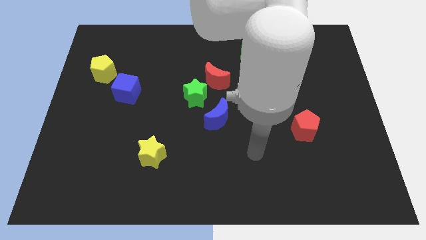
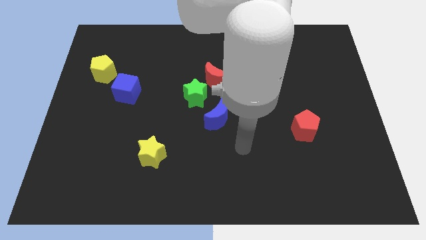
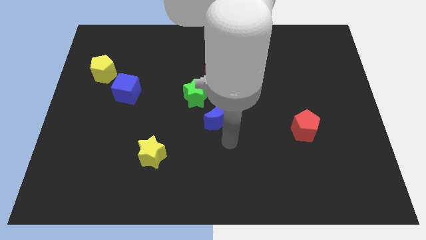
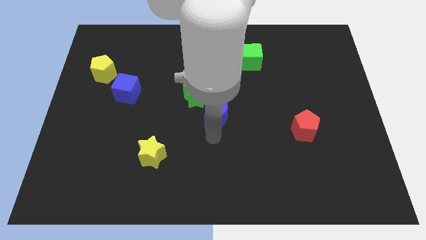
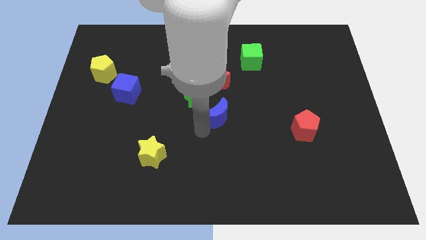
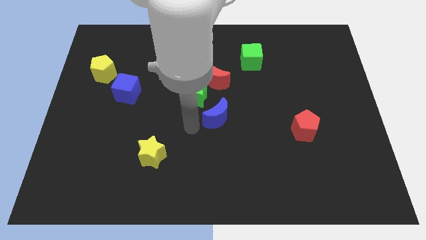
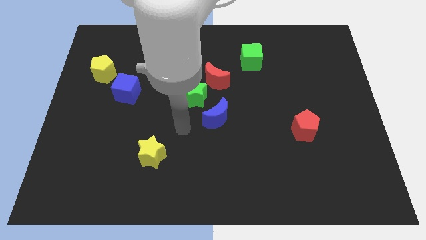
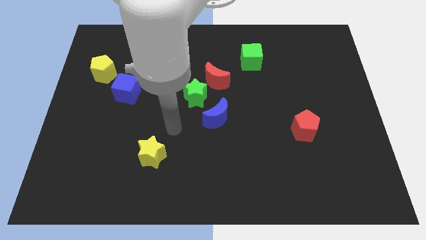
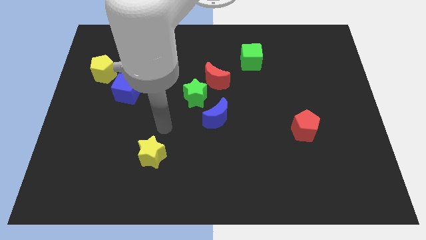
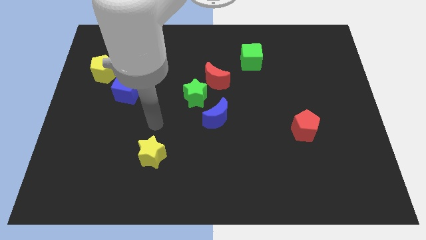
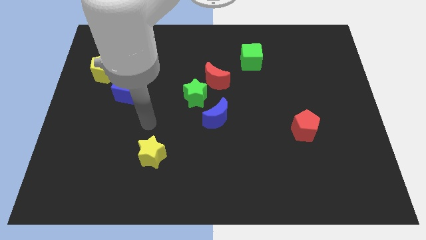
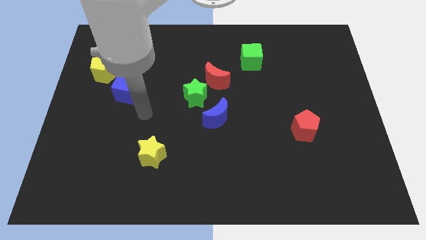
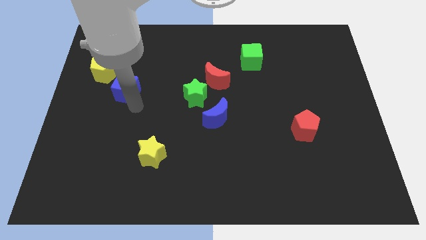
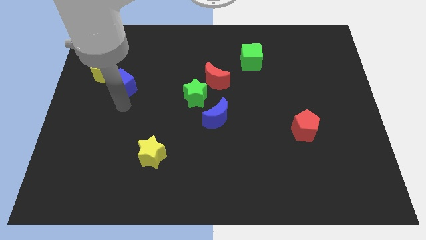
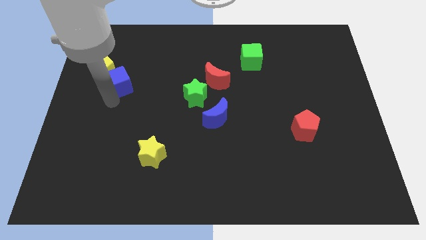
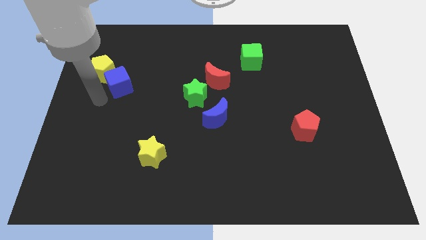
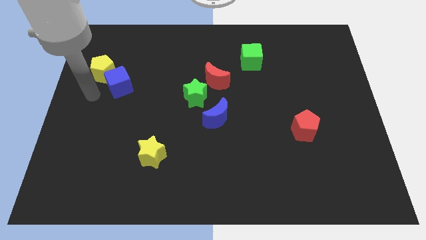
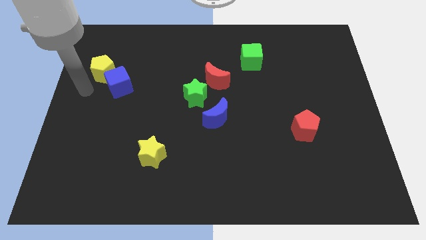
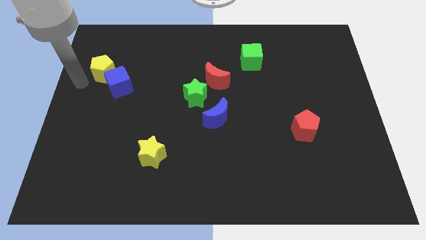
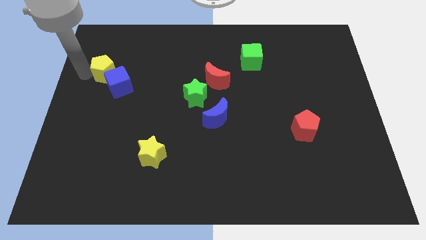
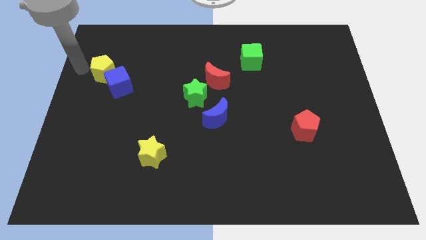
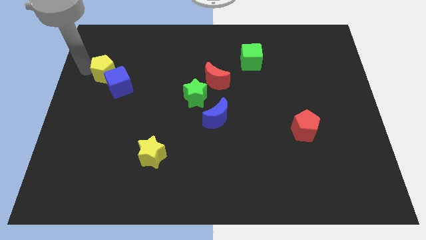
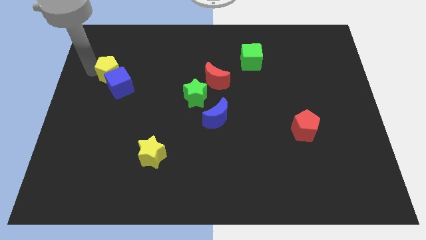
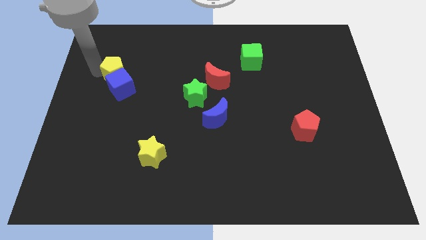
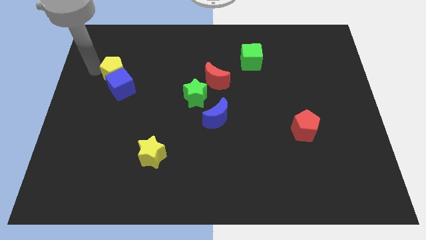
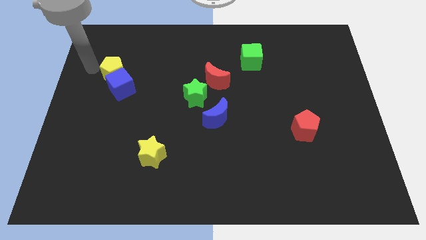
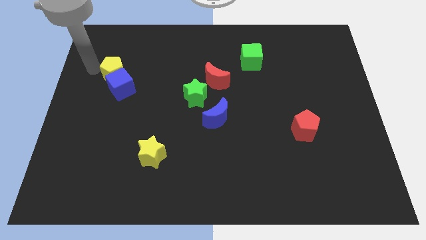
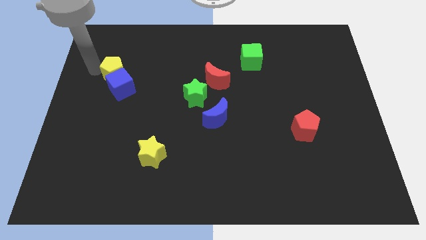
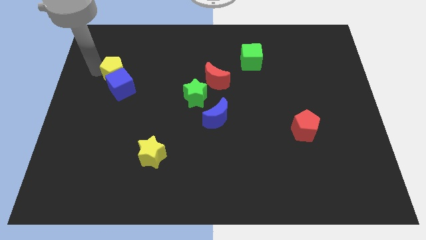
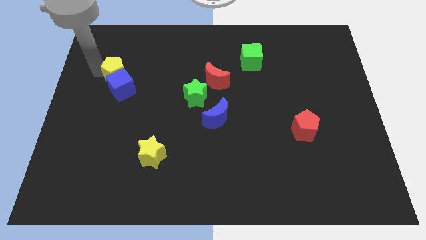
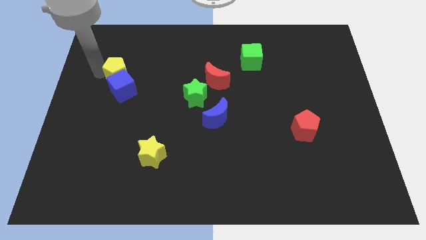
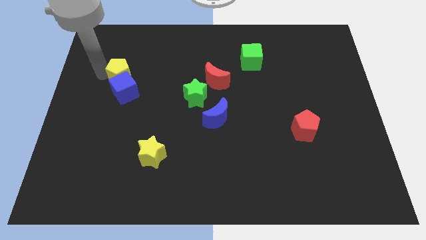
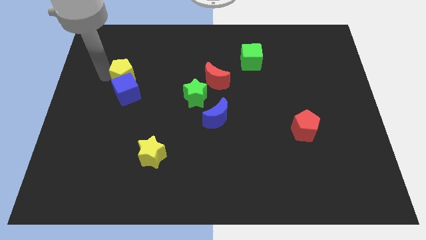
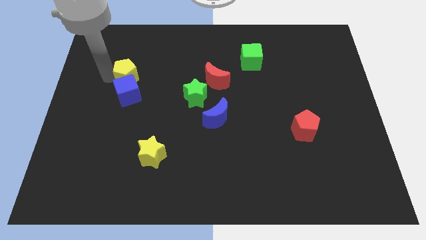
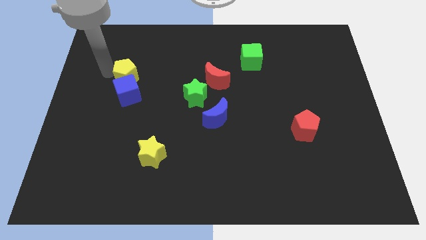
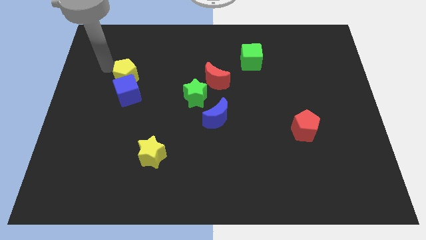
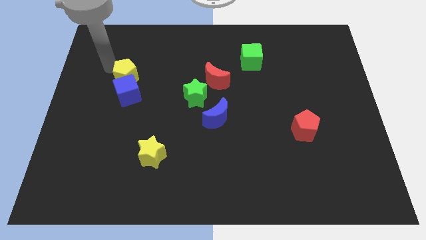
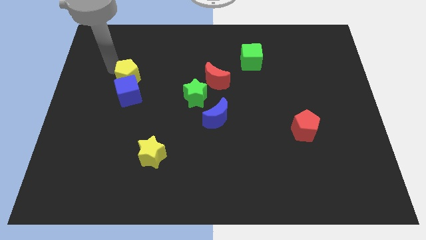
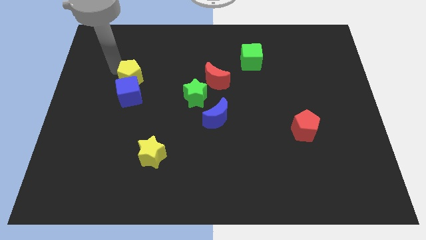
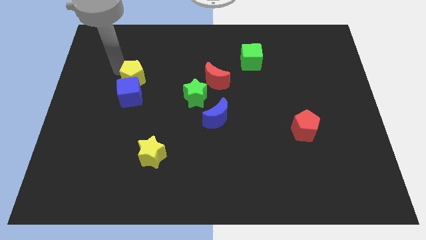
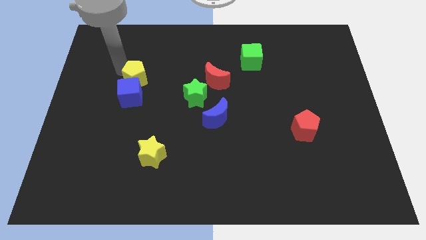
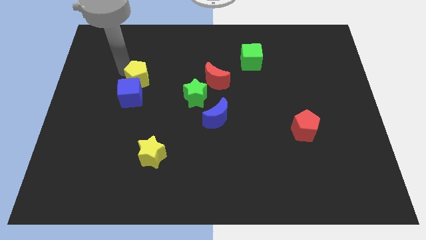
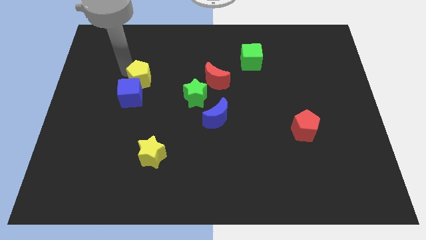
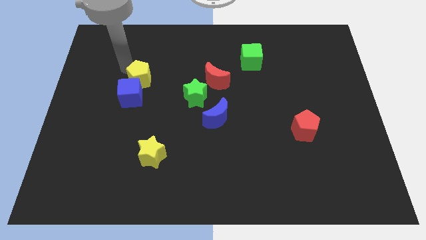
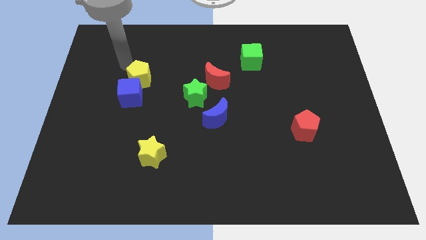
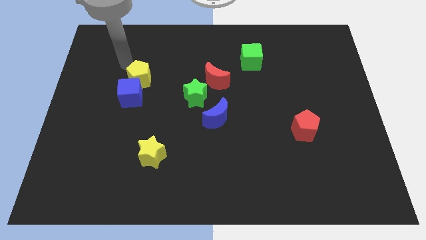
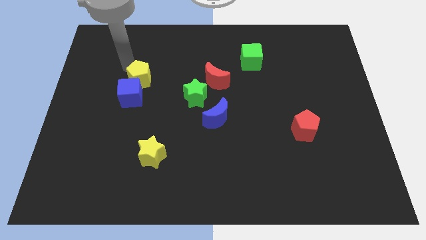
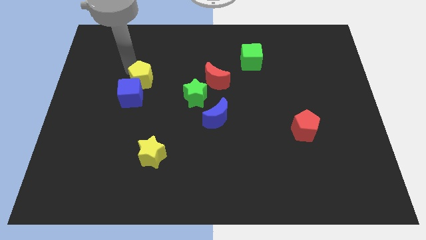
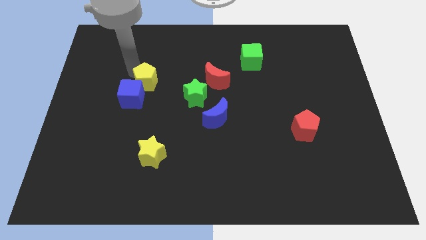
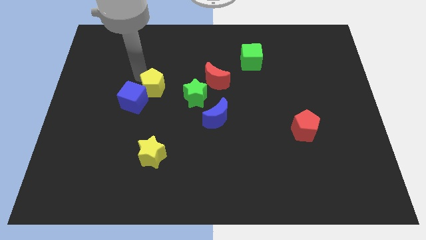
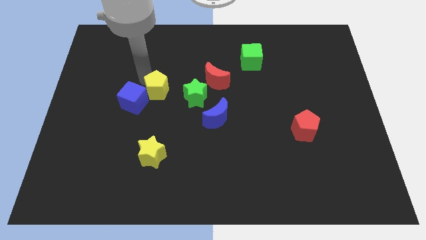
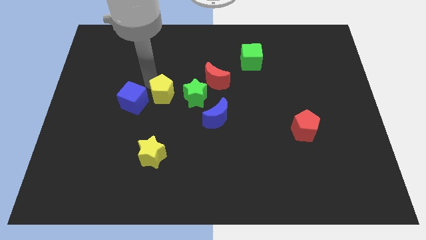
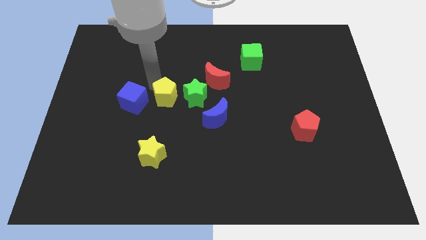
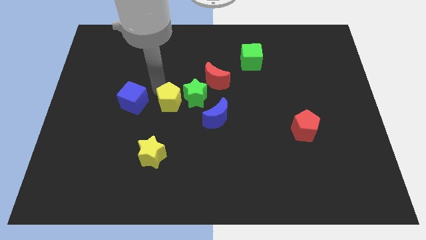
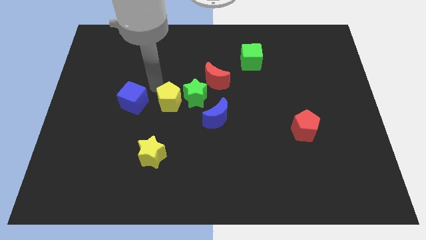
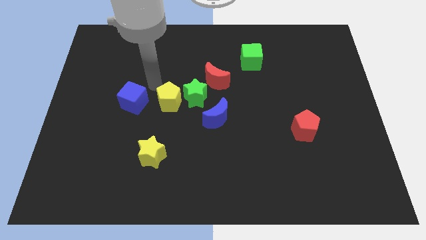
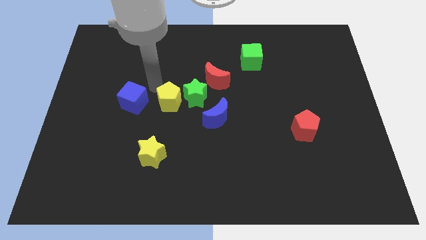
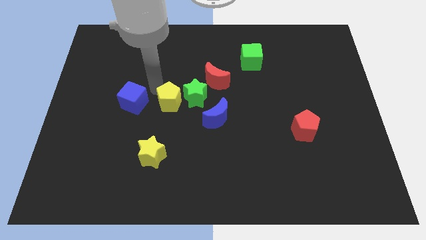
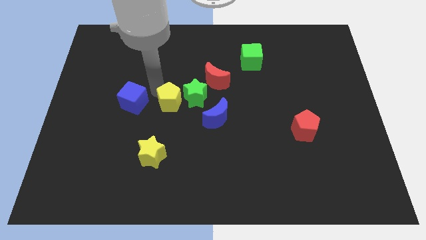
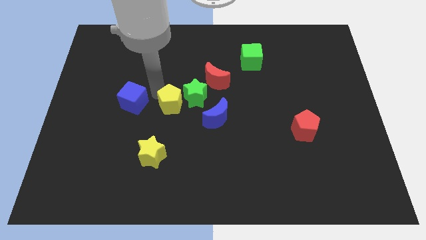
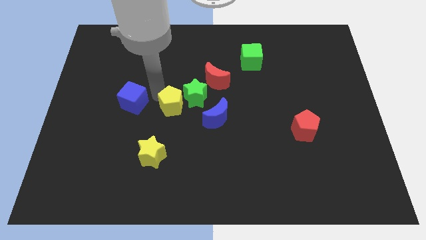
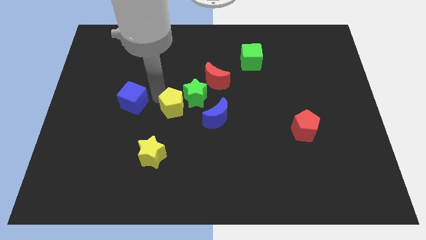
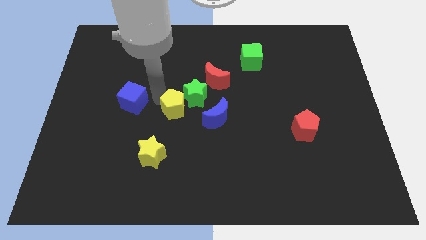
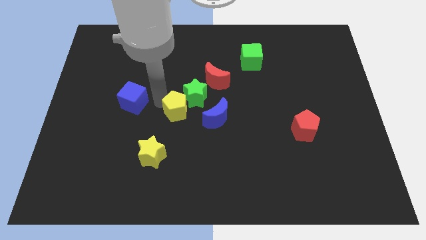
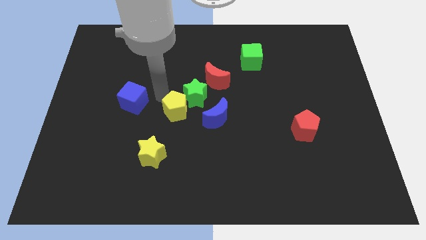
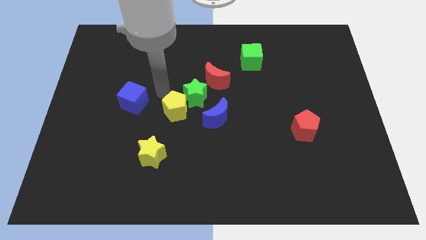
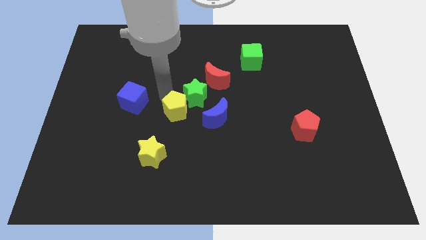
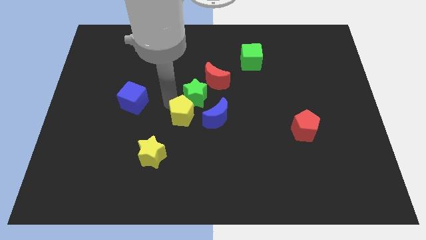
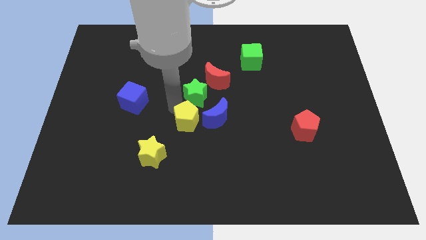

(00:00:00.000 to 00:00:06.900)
push the yellow pentagon to the bottom left side of the blue moon

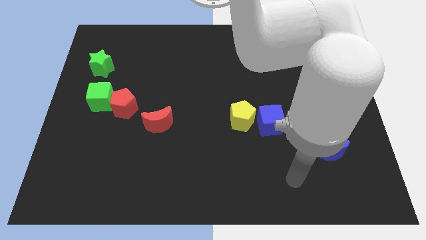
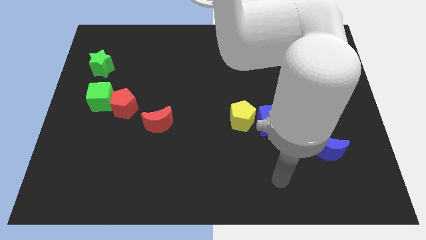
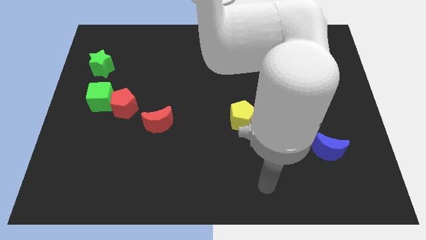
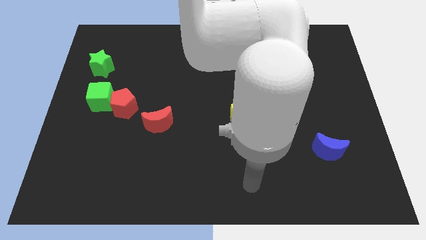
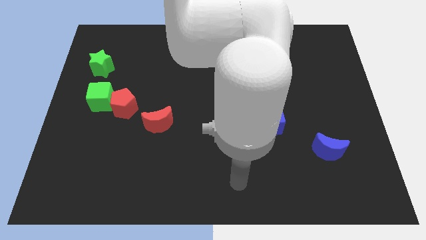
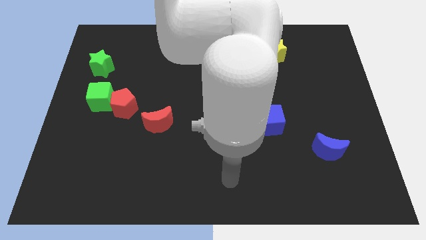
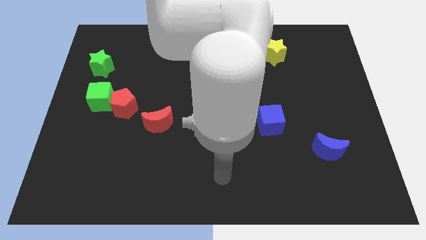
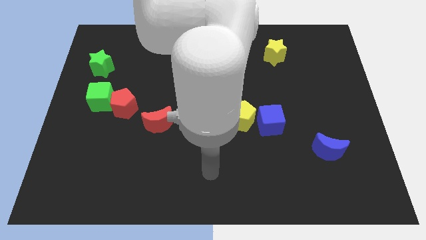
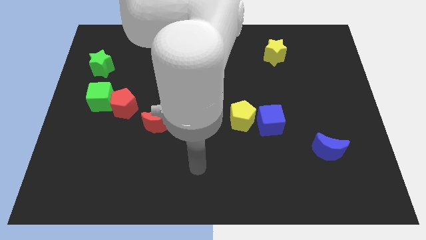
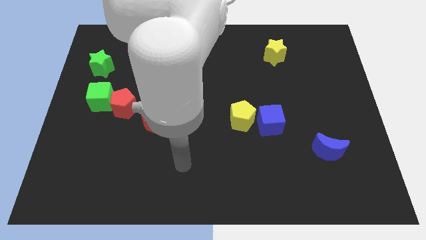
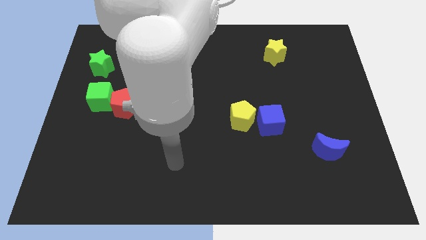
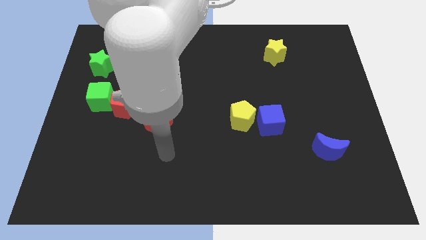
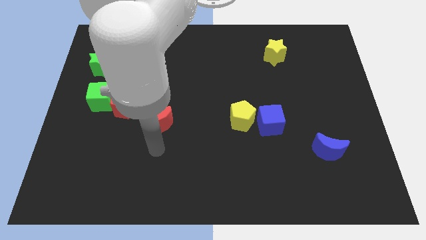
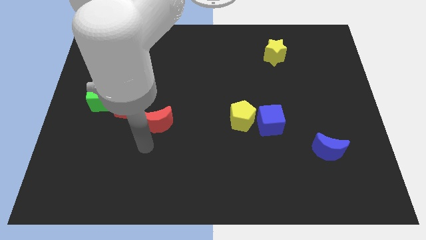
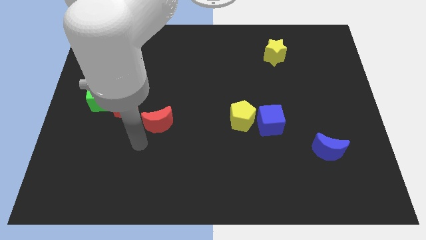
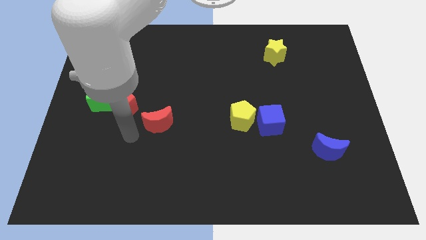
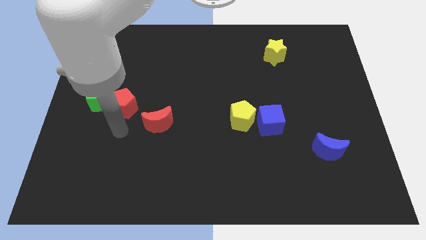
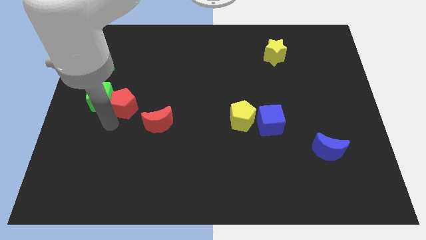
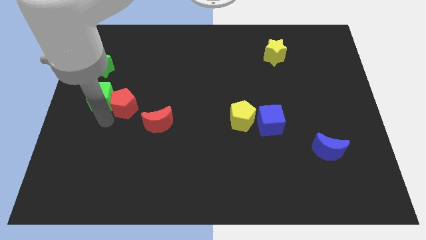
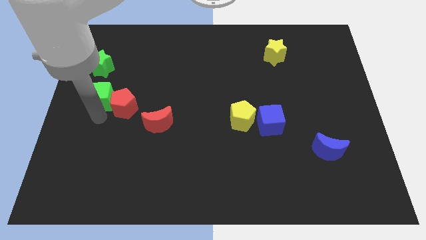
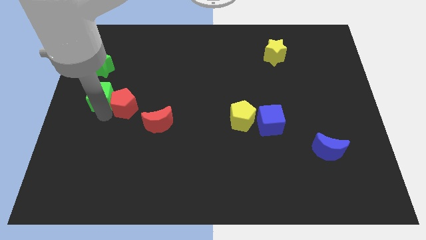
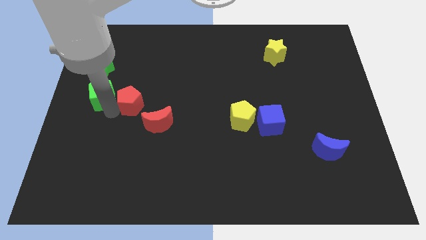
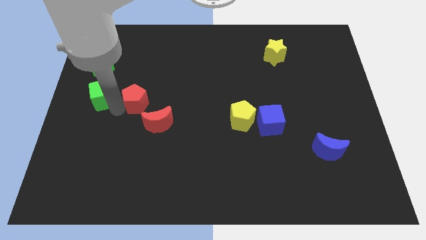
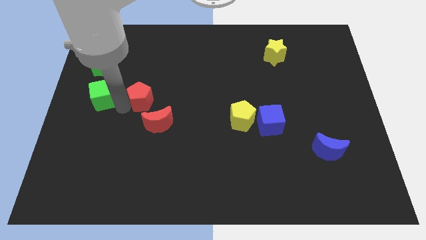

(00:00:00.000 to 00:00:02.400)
put the red pentagon to the top side of the red moon
